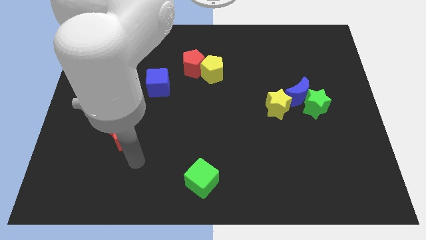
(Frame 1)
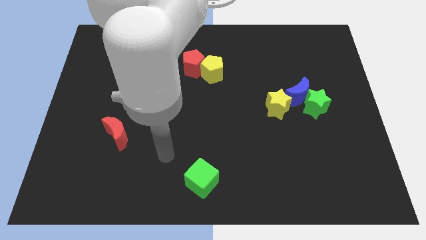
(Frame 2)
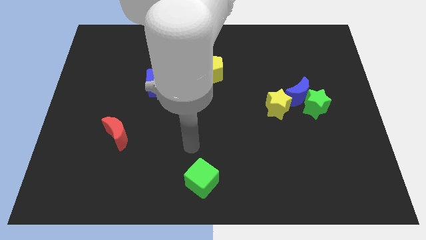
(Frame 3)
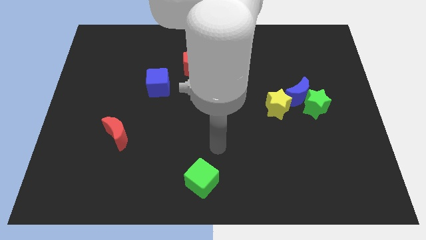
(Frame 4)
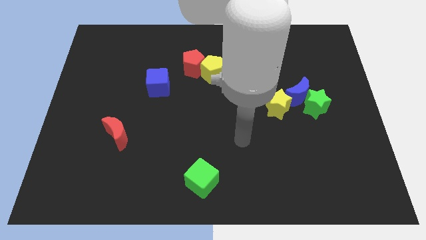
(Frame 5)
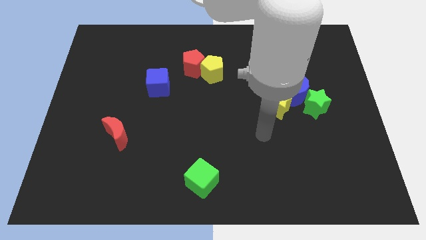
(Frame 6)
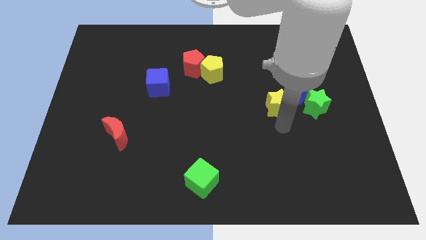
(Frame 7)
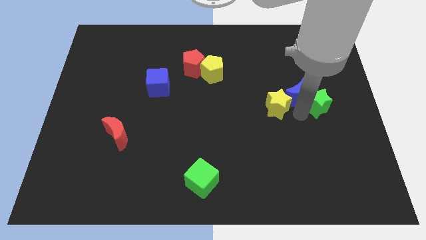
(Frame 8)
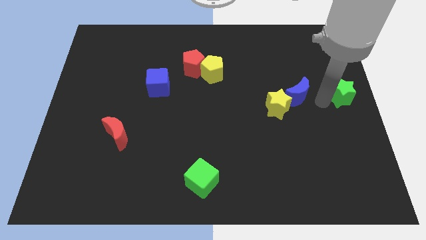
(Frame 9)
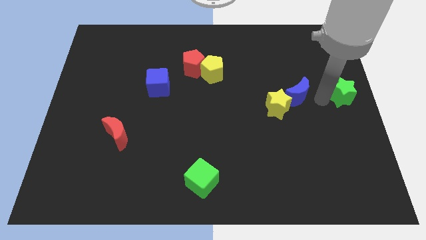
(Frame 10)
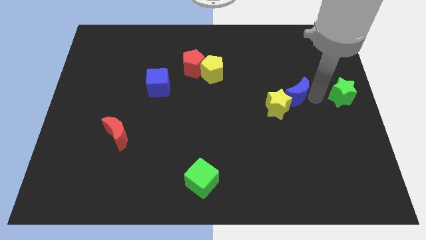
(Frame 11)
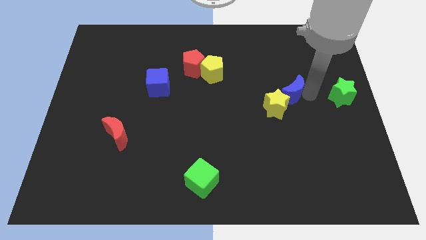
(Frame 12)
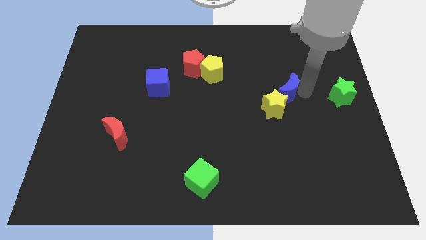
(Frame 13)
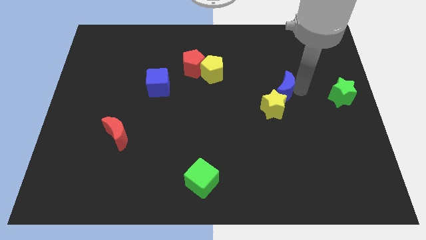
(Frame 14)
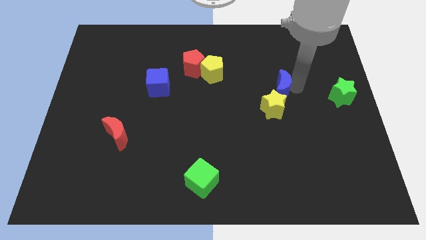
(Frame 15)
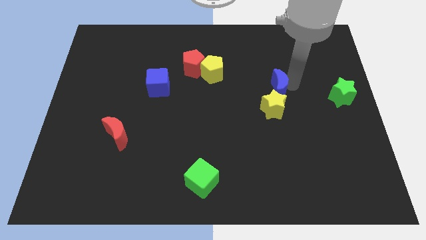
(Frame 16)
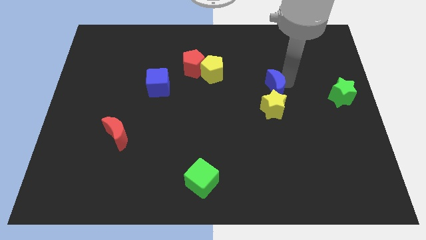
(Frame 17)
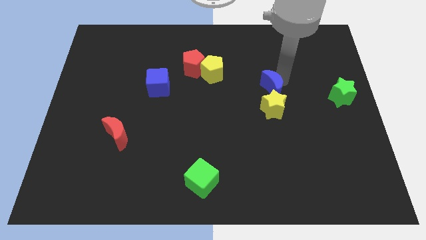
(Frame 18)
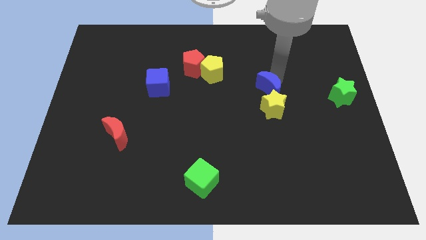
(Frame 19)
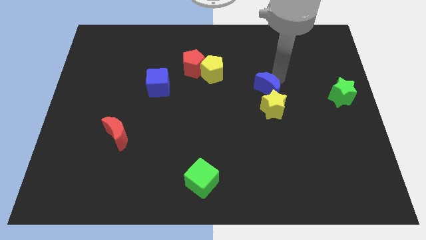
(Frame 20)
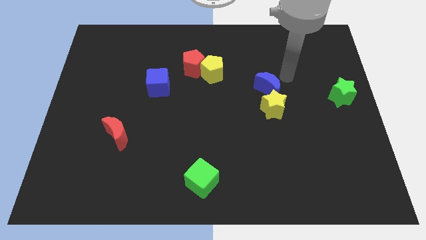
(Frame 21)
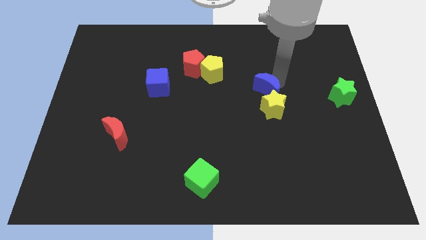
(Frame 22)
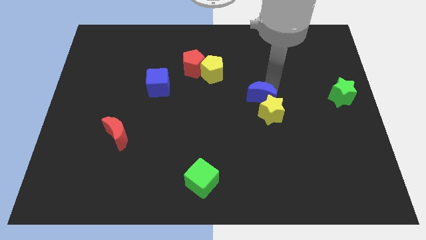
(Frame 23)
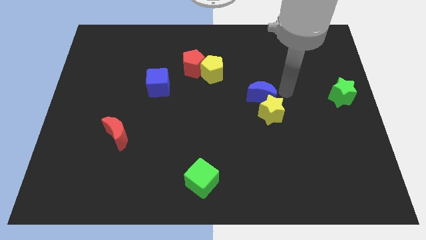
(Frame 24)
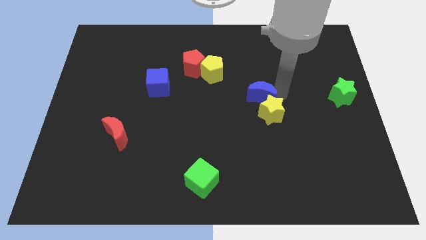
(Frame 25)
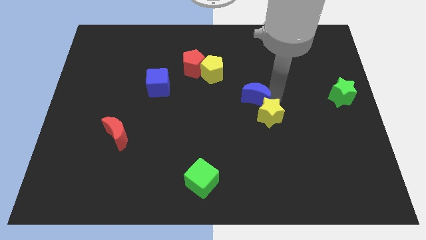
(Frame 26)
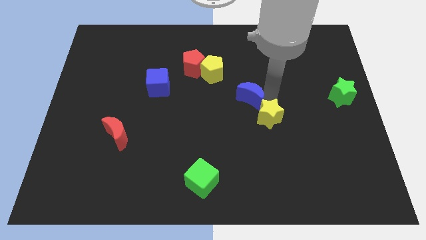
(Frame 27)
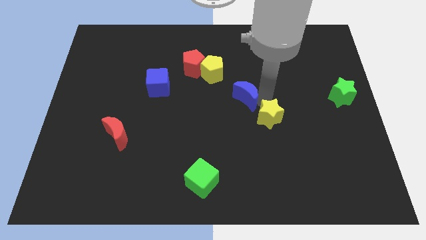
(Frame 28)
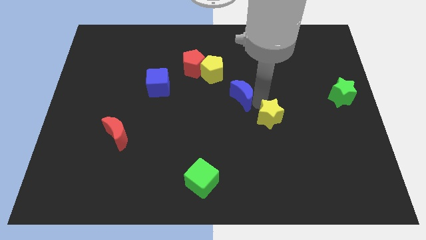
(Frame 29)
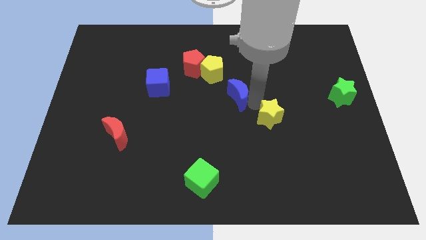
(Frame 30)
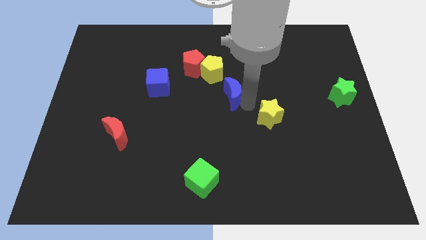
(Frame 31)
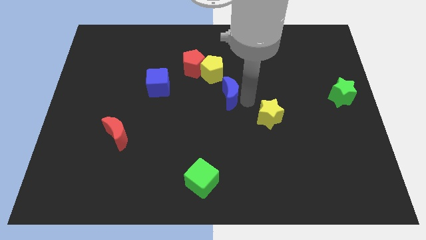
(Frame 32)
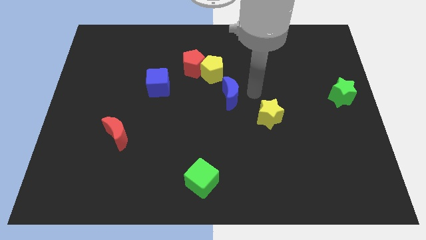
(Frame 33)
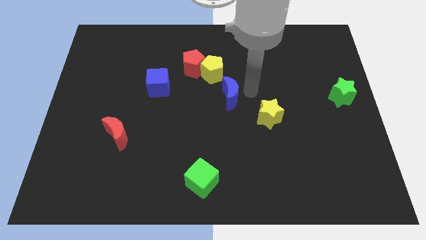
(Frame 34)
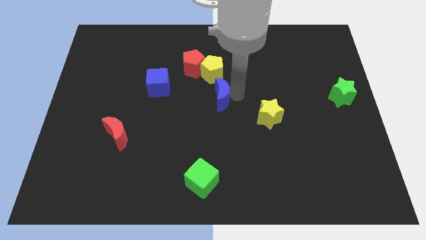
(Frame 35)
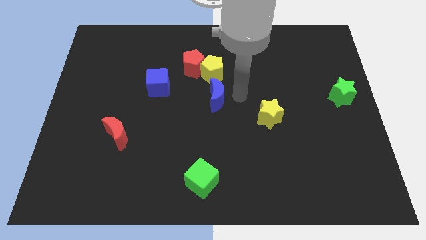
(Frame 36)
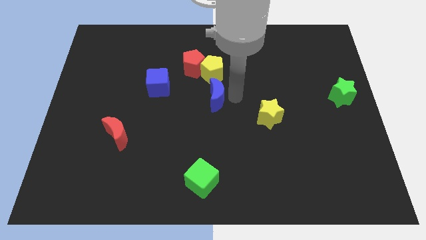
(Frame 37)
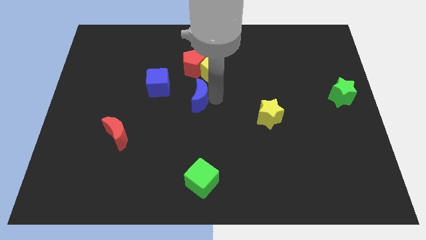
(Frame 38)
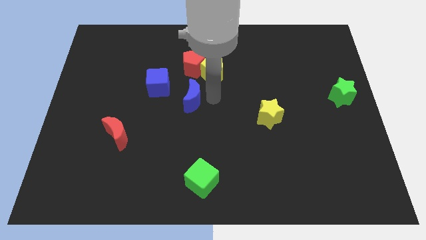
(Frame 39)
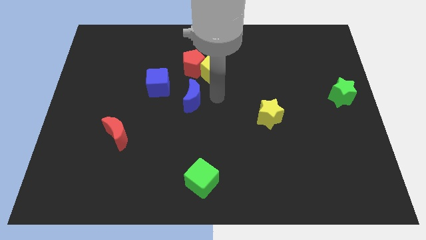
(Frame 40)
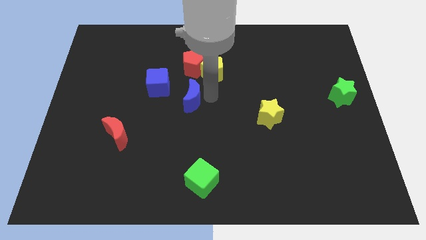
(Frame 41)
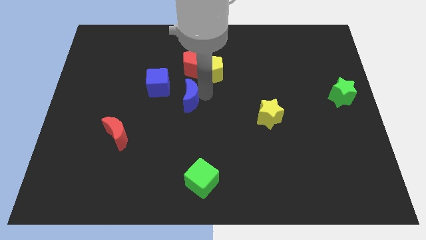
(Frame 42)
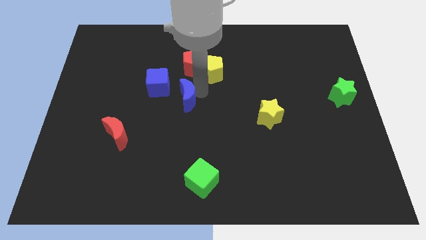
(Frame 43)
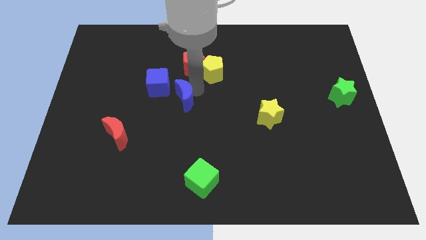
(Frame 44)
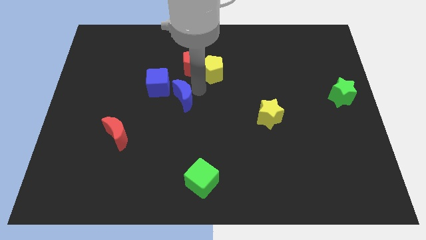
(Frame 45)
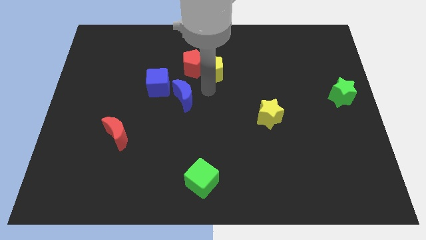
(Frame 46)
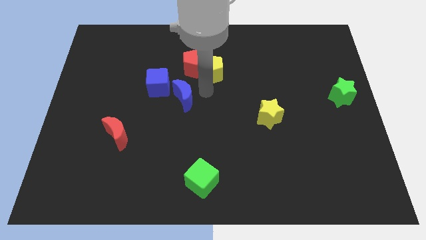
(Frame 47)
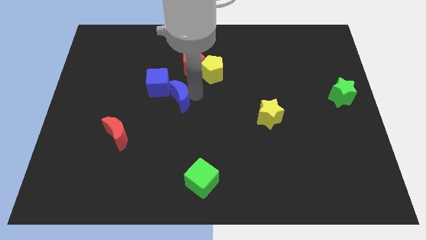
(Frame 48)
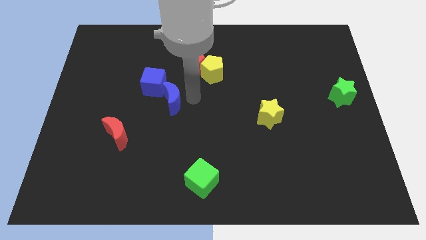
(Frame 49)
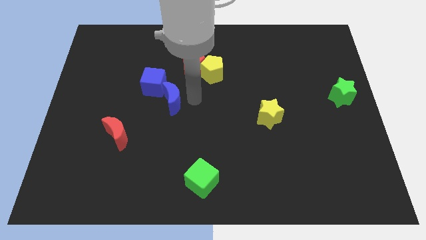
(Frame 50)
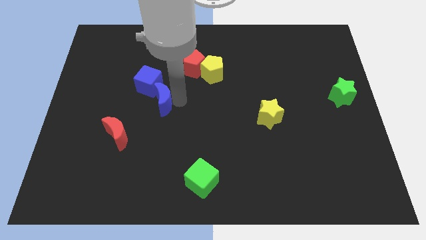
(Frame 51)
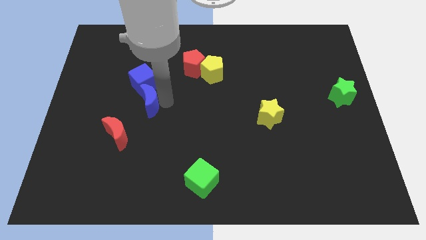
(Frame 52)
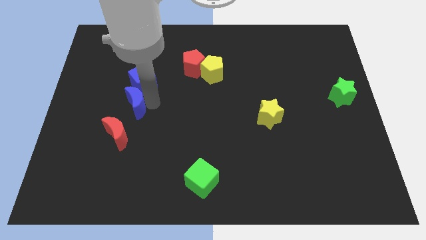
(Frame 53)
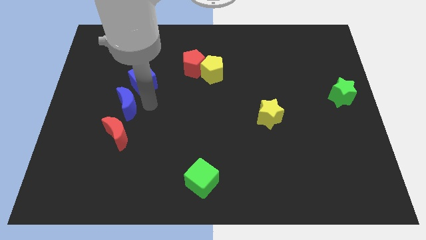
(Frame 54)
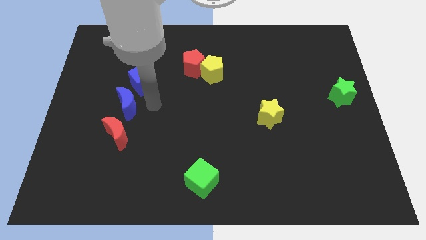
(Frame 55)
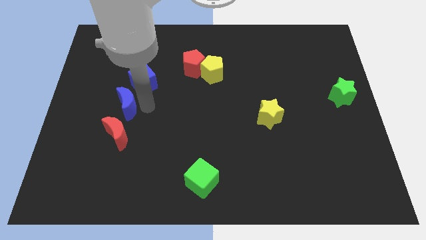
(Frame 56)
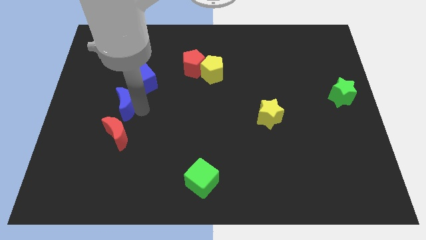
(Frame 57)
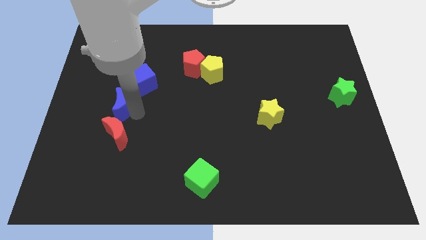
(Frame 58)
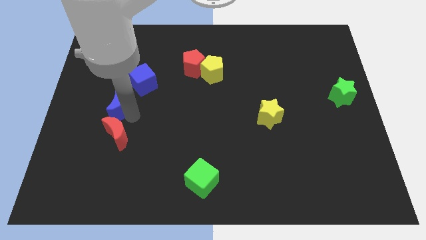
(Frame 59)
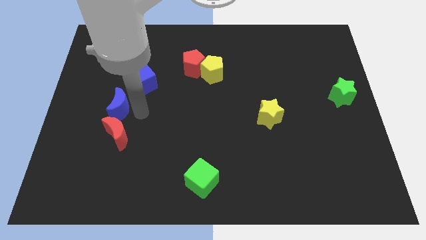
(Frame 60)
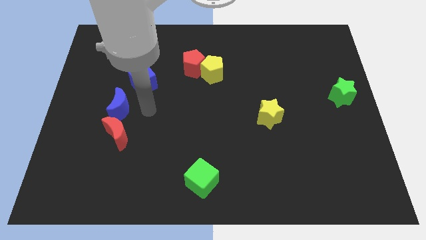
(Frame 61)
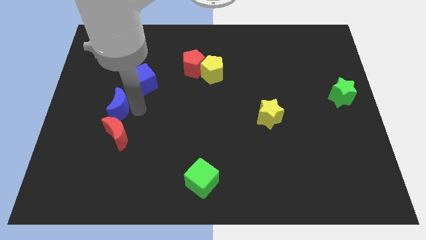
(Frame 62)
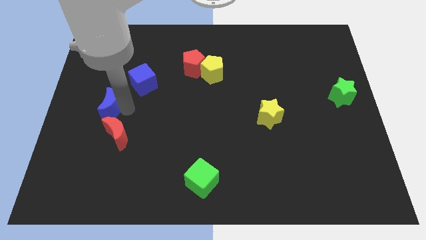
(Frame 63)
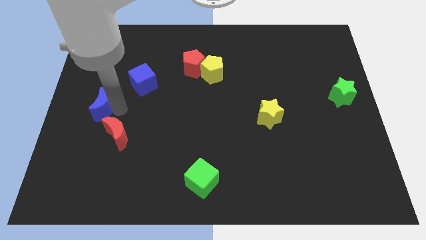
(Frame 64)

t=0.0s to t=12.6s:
slide the blue moon to the left side
